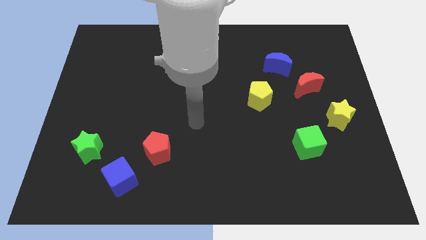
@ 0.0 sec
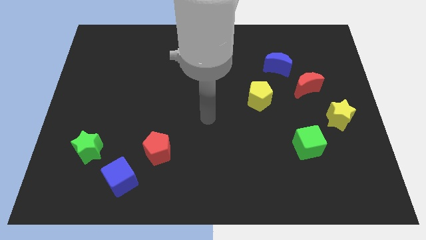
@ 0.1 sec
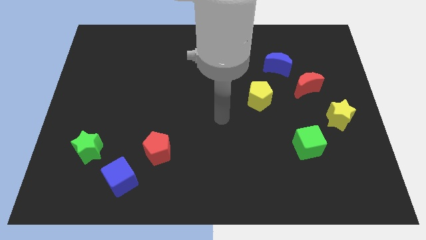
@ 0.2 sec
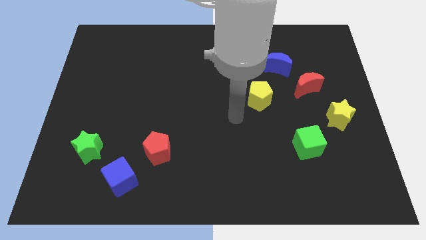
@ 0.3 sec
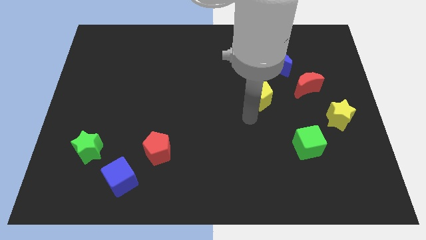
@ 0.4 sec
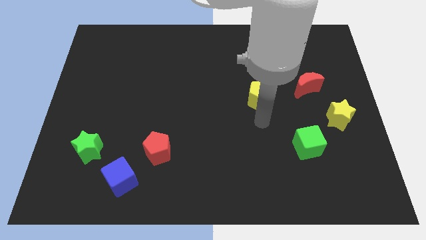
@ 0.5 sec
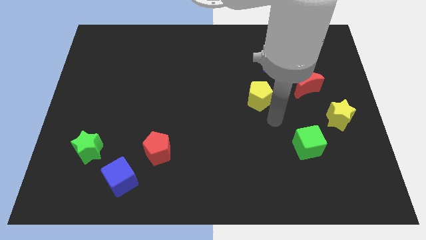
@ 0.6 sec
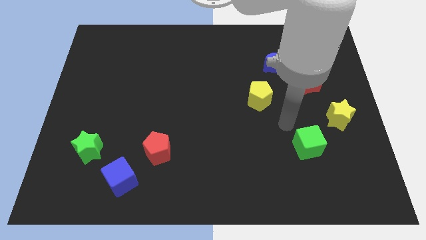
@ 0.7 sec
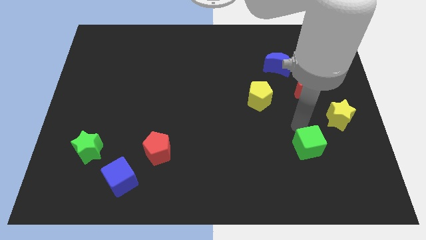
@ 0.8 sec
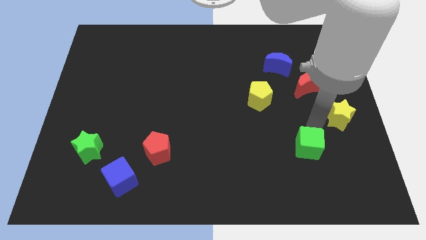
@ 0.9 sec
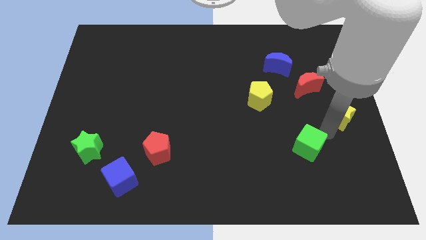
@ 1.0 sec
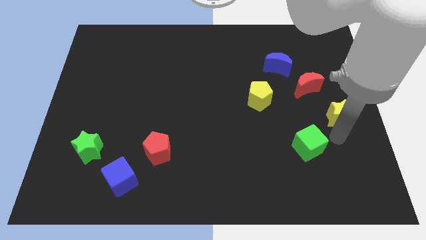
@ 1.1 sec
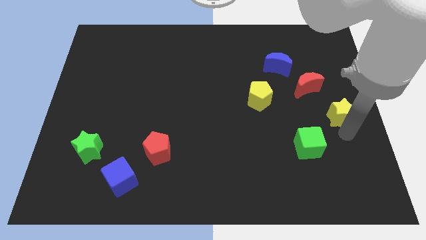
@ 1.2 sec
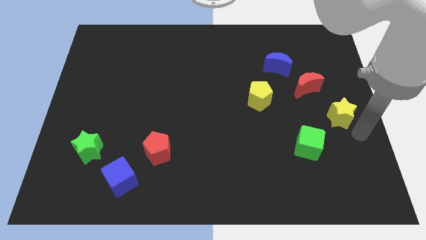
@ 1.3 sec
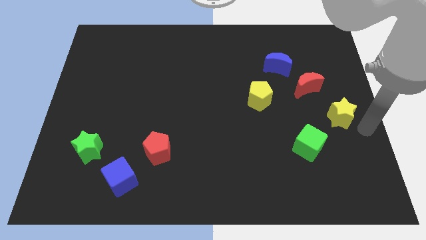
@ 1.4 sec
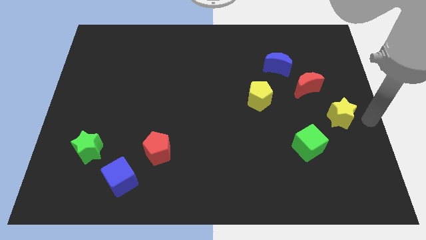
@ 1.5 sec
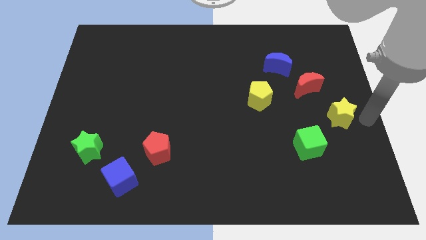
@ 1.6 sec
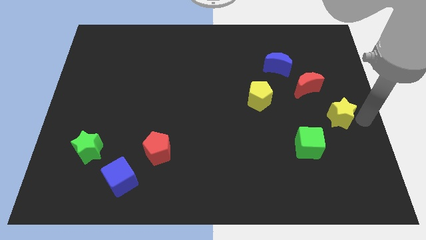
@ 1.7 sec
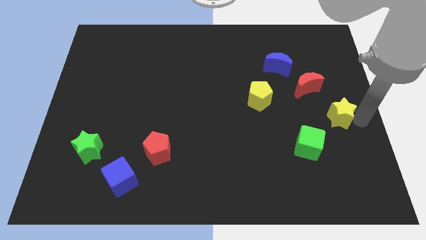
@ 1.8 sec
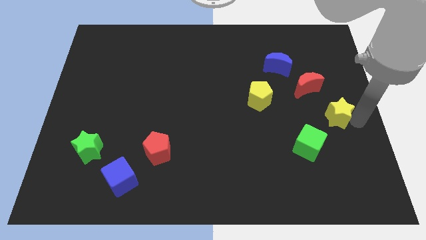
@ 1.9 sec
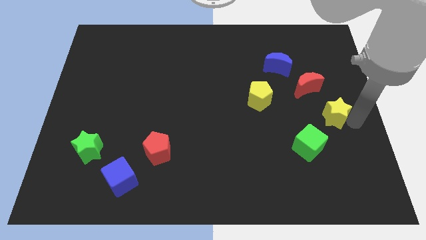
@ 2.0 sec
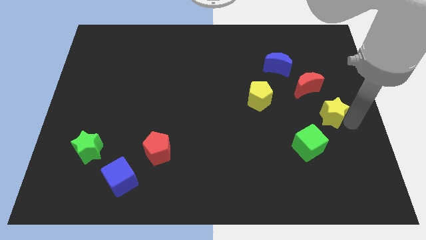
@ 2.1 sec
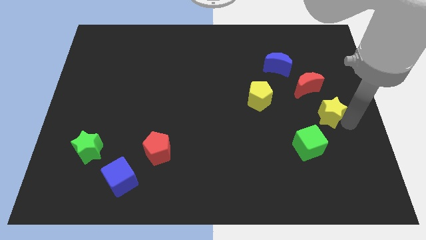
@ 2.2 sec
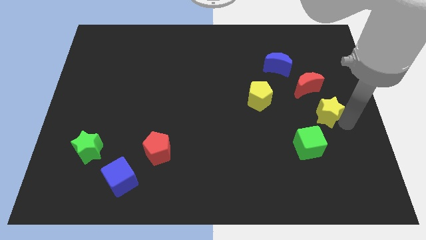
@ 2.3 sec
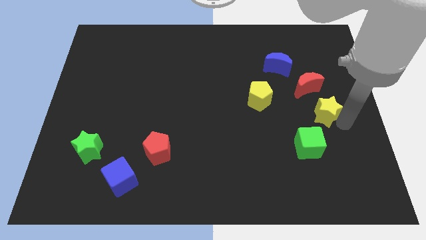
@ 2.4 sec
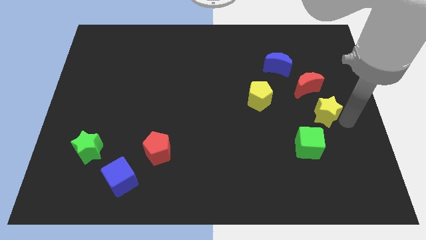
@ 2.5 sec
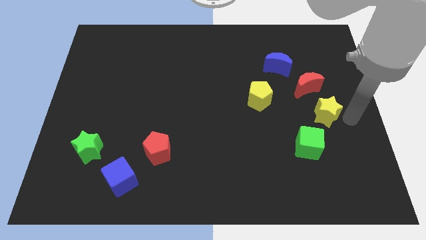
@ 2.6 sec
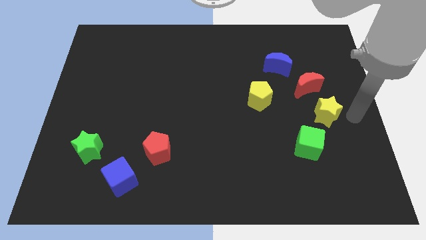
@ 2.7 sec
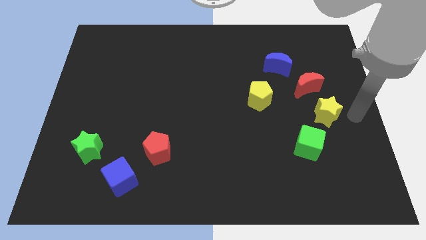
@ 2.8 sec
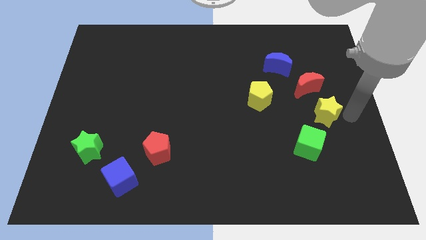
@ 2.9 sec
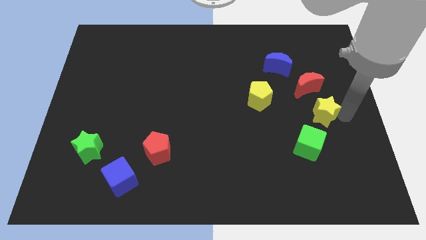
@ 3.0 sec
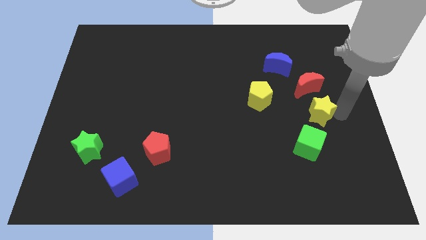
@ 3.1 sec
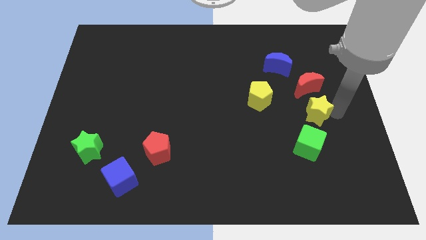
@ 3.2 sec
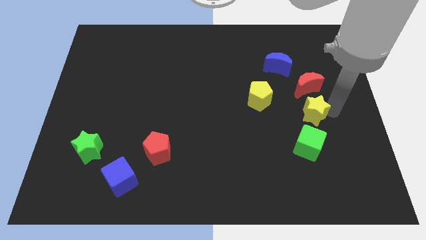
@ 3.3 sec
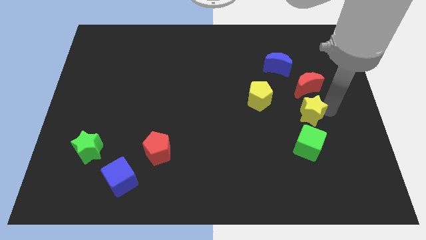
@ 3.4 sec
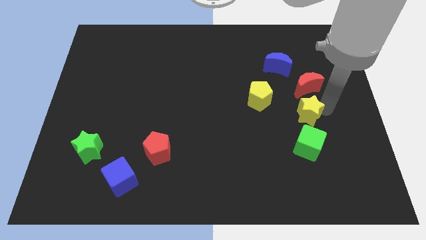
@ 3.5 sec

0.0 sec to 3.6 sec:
move the yellow star to the left a little

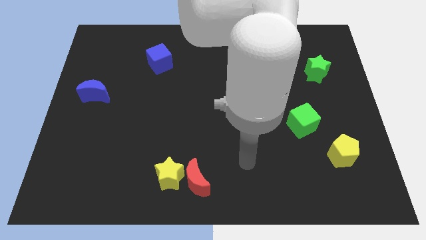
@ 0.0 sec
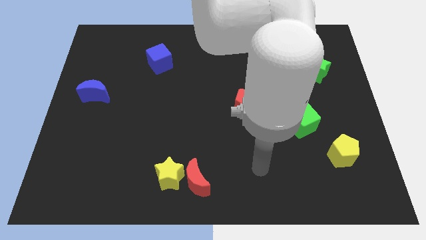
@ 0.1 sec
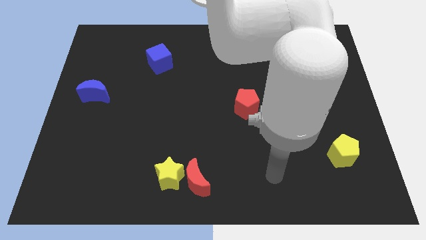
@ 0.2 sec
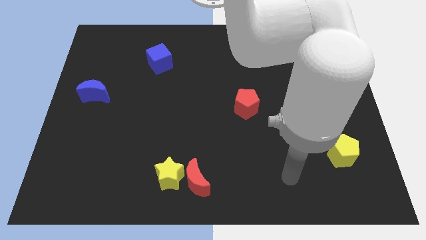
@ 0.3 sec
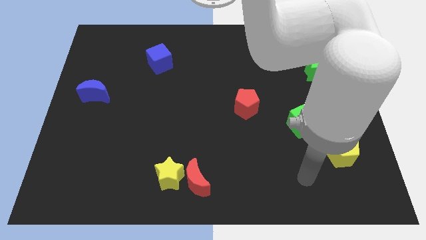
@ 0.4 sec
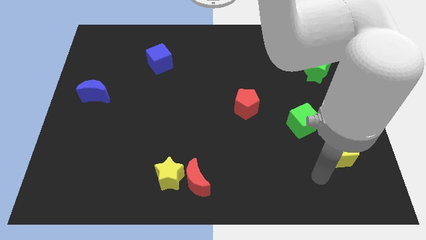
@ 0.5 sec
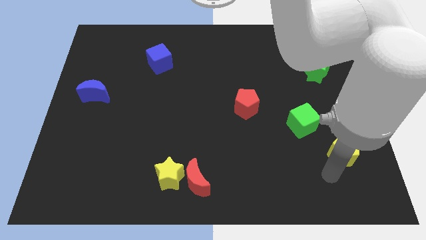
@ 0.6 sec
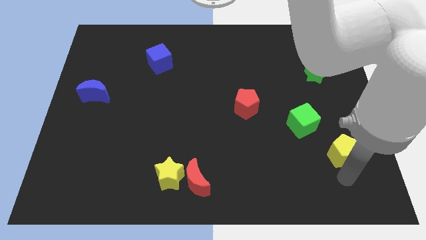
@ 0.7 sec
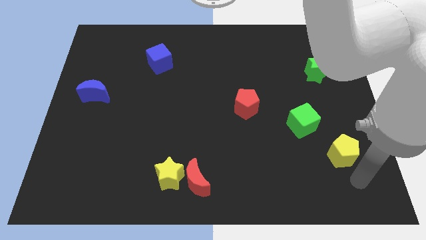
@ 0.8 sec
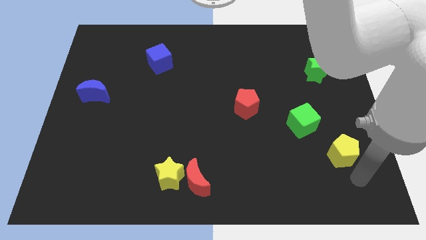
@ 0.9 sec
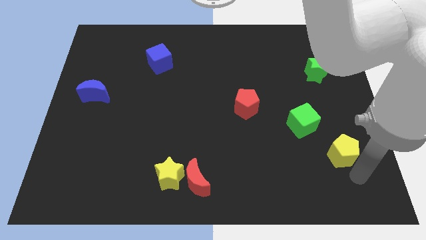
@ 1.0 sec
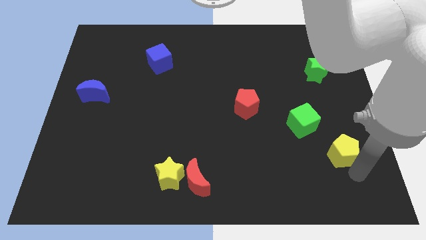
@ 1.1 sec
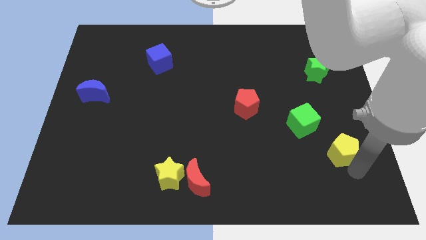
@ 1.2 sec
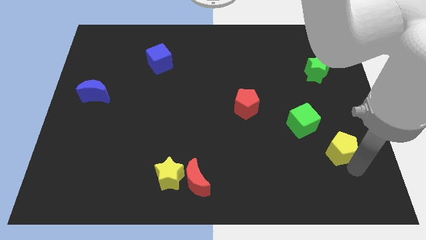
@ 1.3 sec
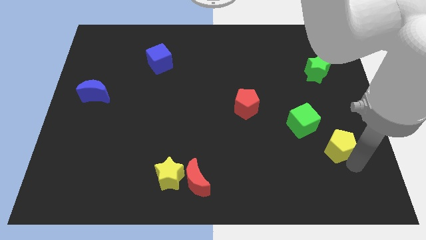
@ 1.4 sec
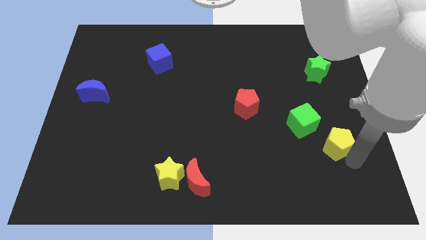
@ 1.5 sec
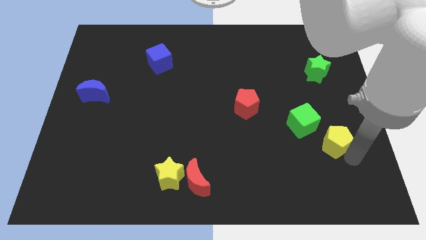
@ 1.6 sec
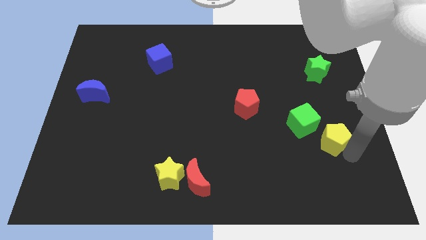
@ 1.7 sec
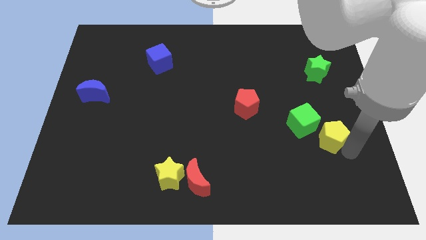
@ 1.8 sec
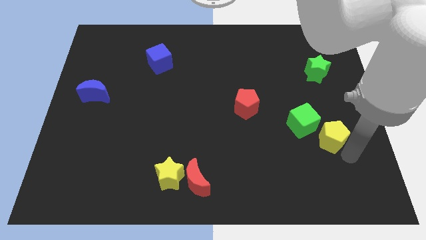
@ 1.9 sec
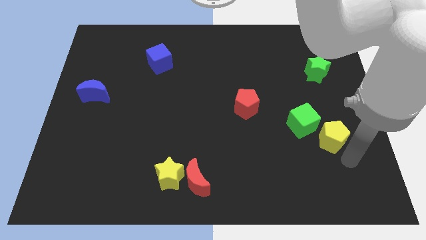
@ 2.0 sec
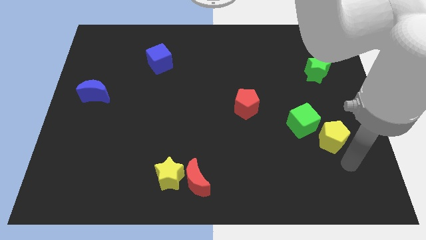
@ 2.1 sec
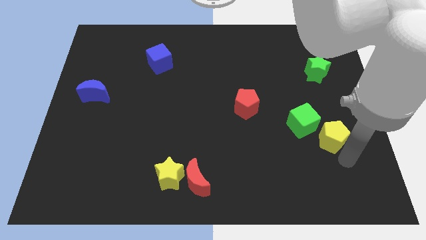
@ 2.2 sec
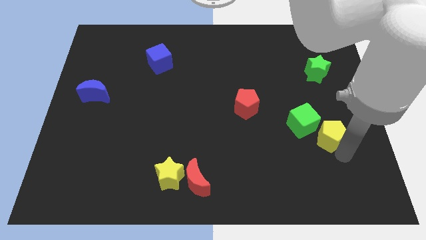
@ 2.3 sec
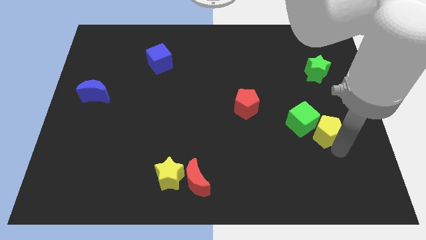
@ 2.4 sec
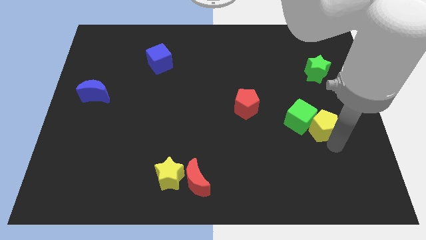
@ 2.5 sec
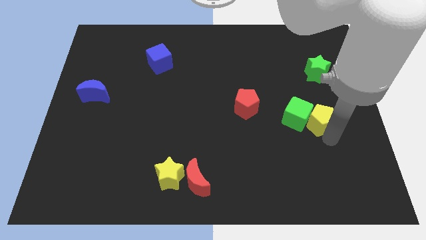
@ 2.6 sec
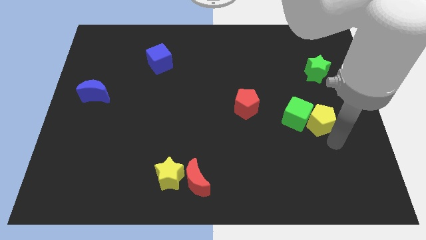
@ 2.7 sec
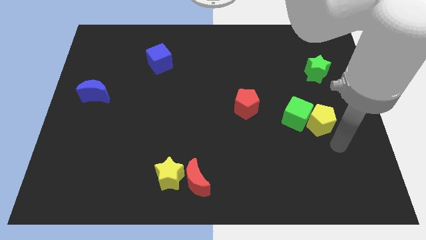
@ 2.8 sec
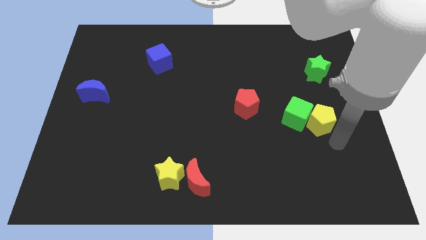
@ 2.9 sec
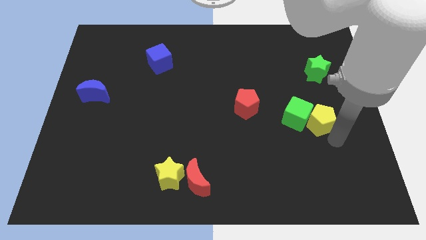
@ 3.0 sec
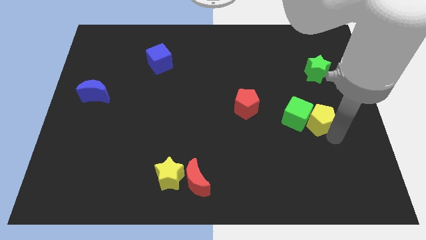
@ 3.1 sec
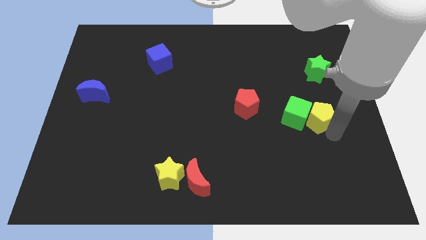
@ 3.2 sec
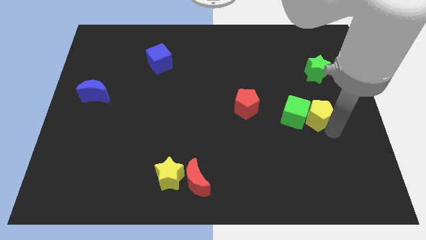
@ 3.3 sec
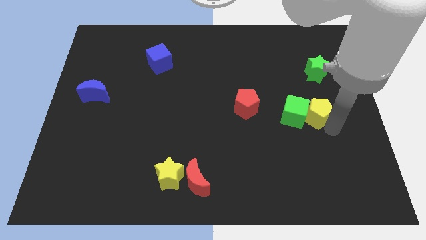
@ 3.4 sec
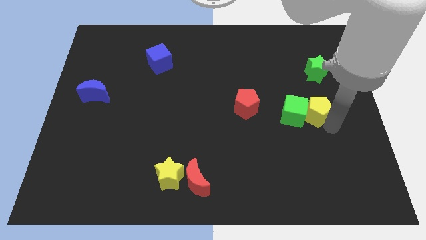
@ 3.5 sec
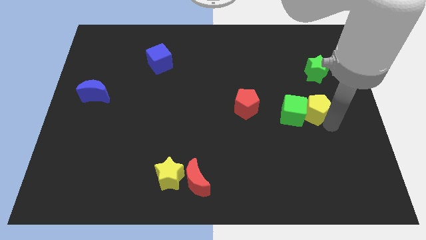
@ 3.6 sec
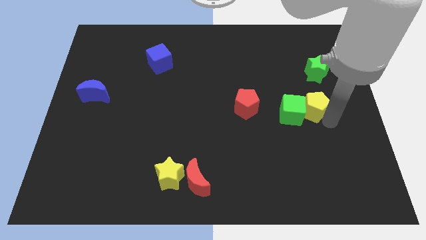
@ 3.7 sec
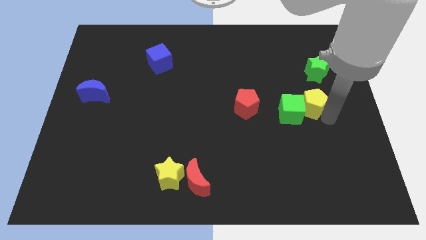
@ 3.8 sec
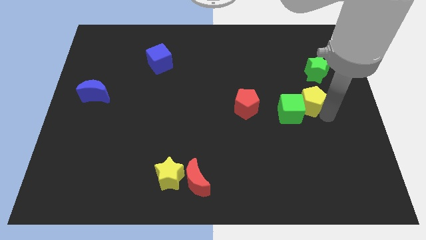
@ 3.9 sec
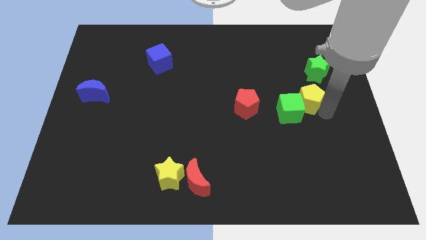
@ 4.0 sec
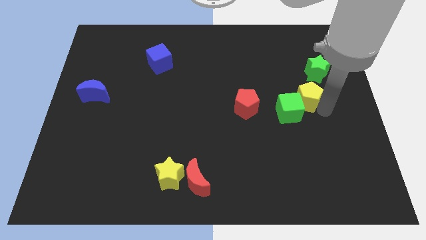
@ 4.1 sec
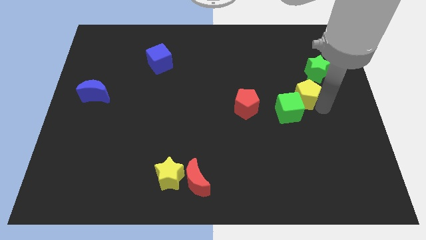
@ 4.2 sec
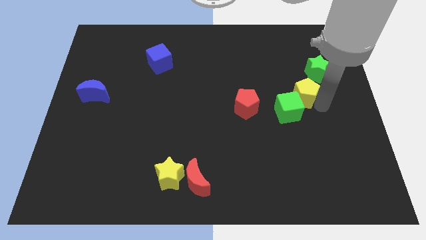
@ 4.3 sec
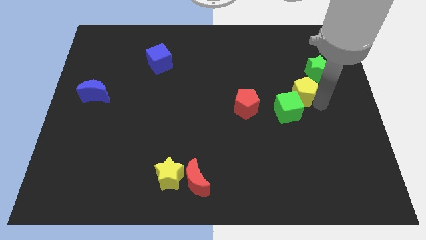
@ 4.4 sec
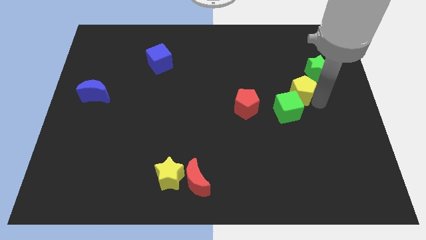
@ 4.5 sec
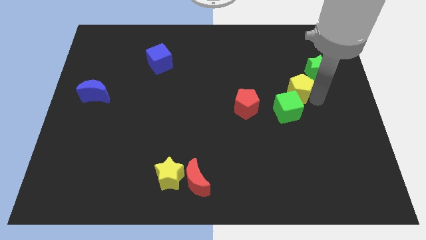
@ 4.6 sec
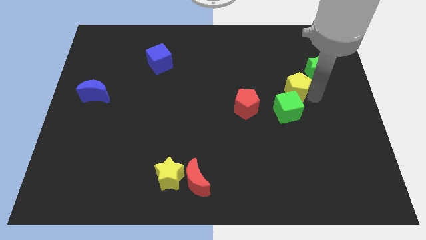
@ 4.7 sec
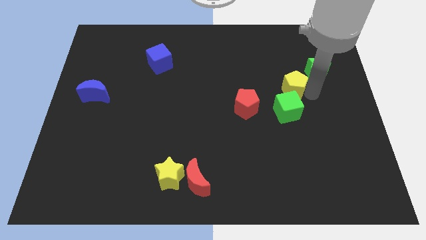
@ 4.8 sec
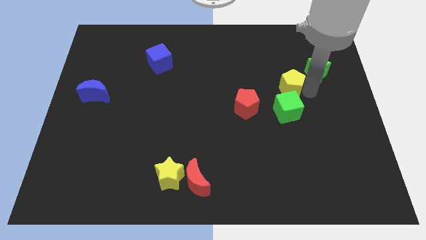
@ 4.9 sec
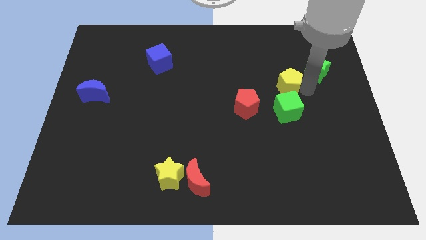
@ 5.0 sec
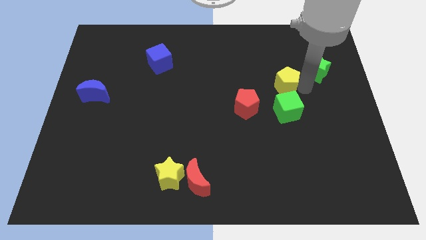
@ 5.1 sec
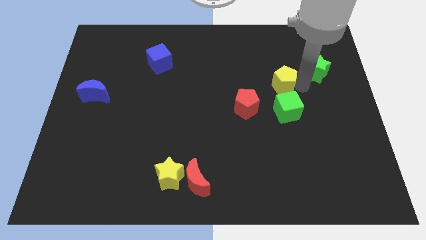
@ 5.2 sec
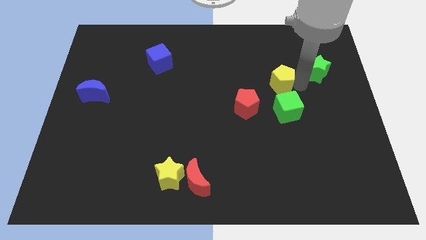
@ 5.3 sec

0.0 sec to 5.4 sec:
slide the yellow pentagon diagonally up and left
